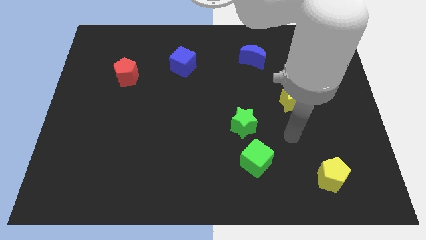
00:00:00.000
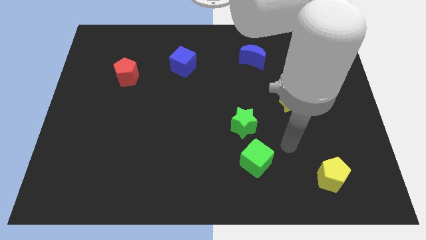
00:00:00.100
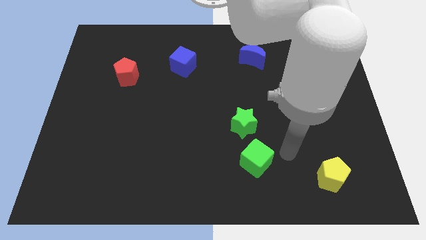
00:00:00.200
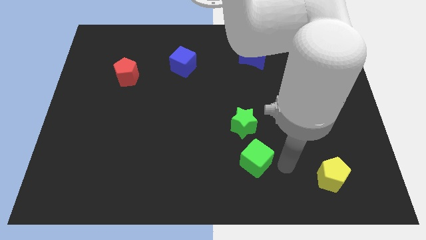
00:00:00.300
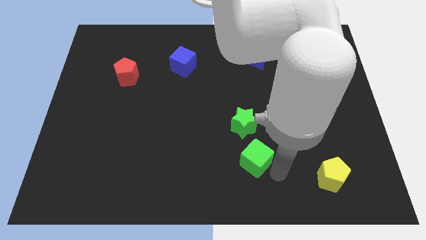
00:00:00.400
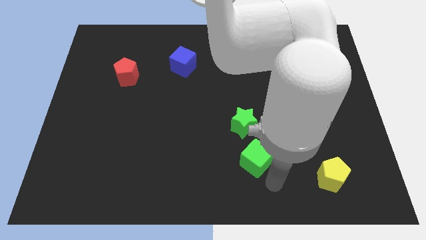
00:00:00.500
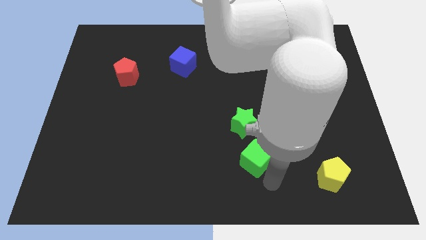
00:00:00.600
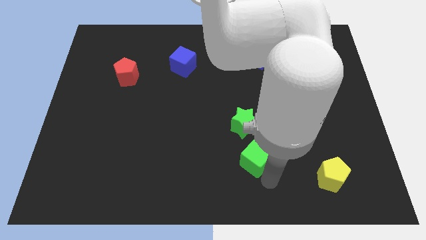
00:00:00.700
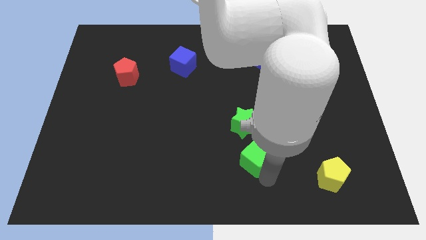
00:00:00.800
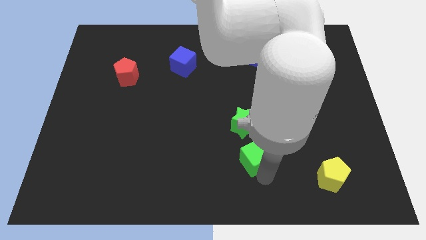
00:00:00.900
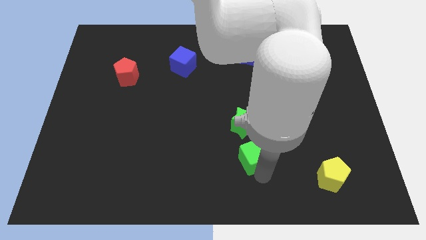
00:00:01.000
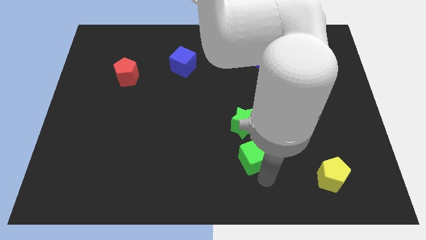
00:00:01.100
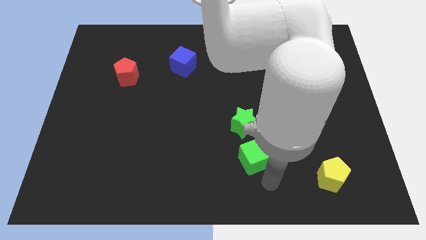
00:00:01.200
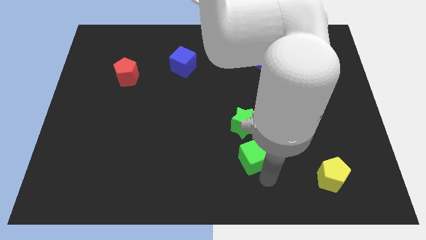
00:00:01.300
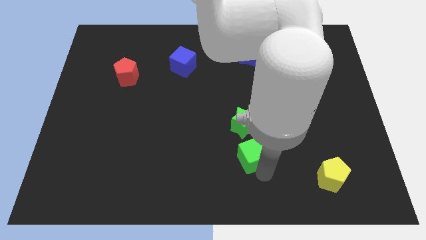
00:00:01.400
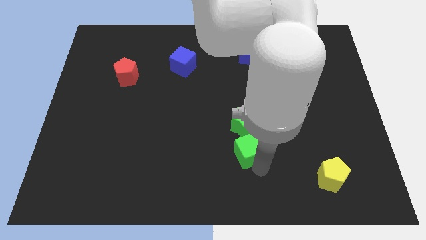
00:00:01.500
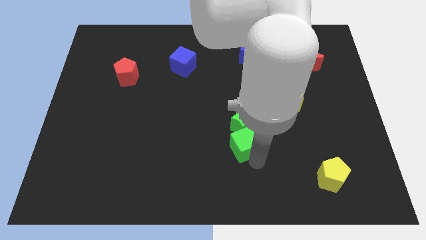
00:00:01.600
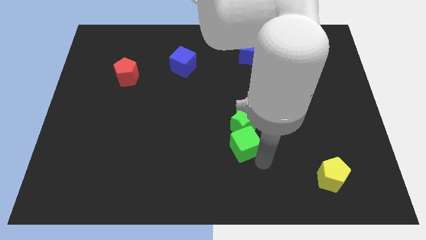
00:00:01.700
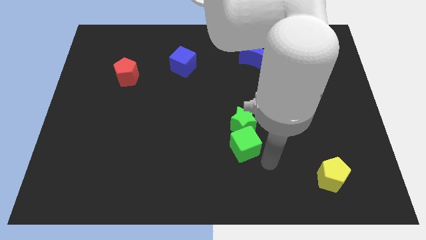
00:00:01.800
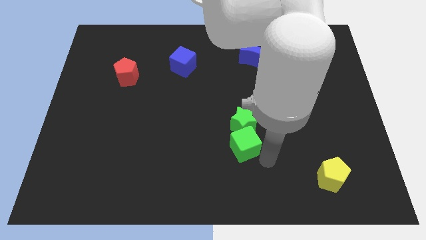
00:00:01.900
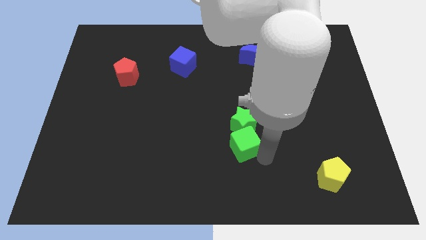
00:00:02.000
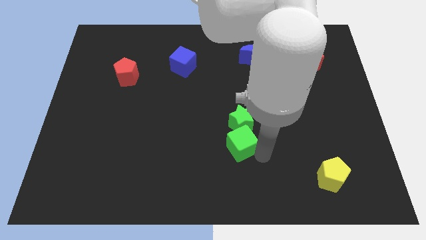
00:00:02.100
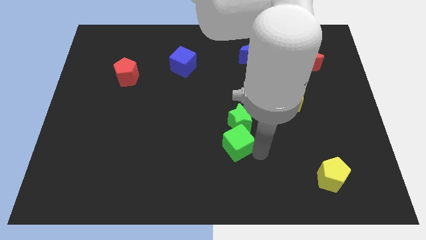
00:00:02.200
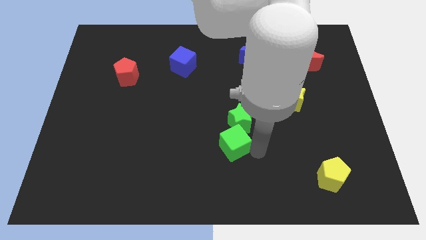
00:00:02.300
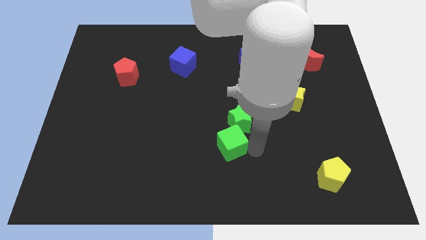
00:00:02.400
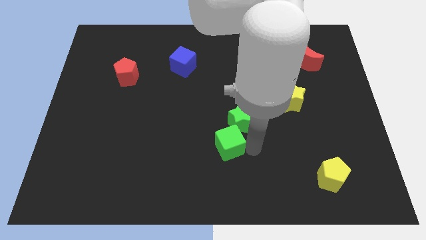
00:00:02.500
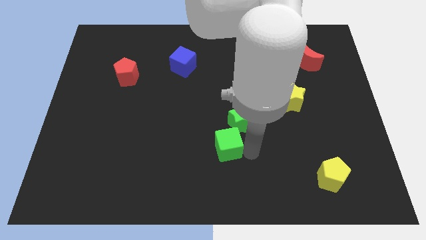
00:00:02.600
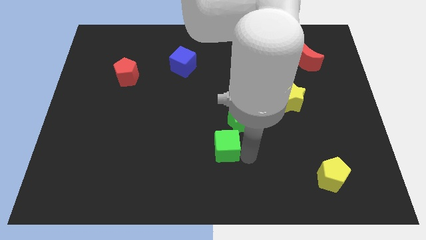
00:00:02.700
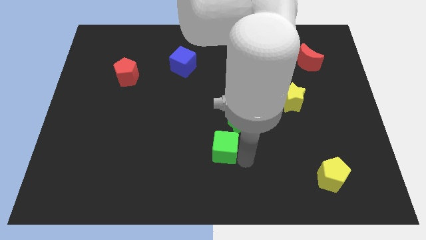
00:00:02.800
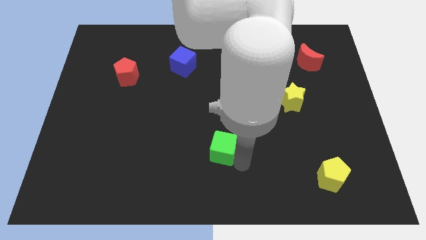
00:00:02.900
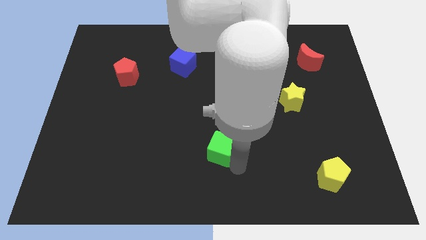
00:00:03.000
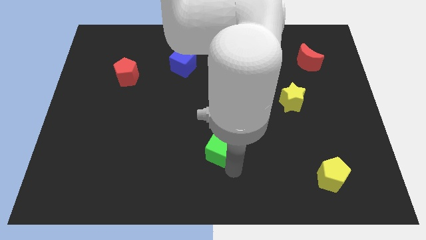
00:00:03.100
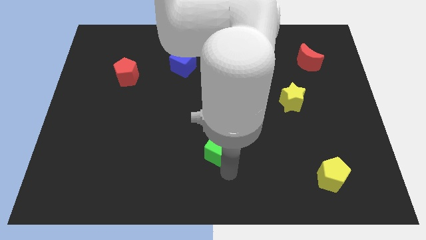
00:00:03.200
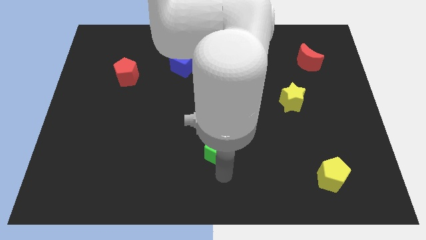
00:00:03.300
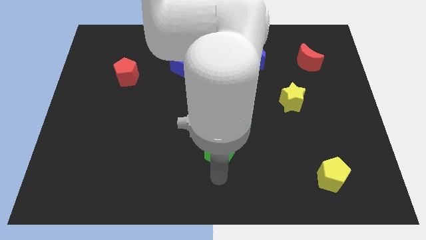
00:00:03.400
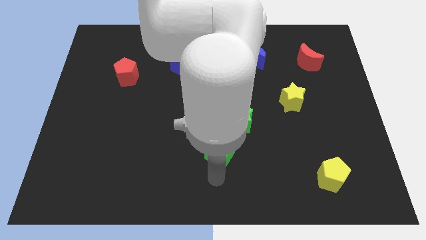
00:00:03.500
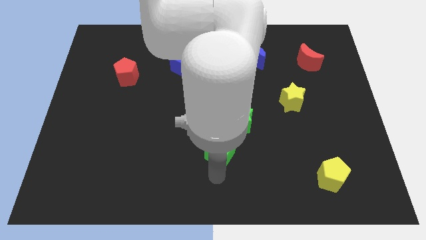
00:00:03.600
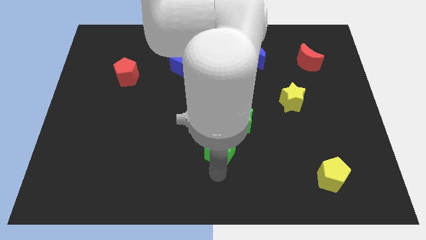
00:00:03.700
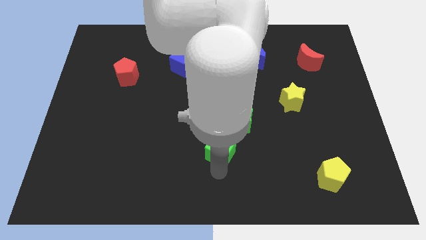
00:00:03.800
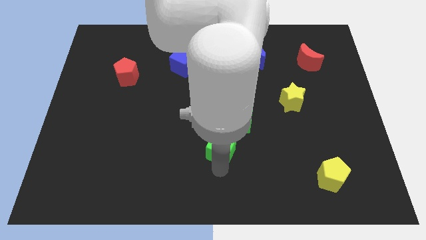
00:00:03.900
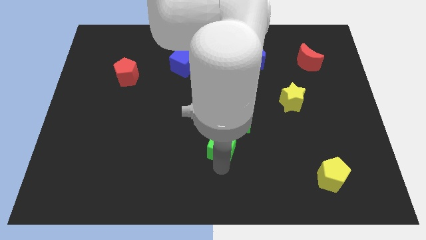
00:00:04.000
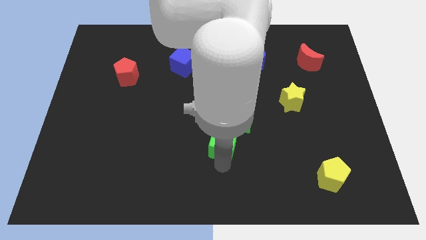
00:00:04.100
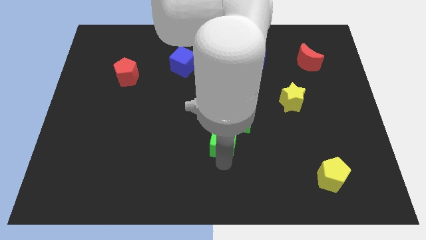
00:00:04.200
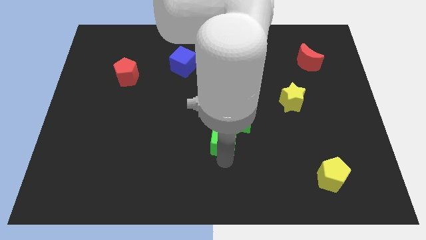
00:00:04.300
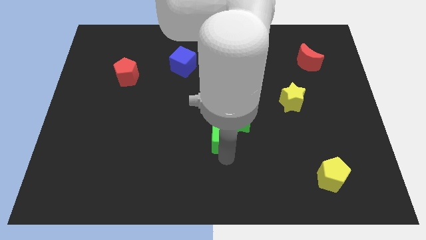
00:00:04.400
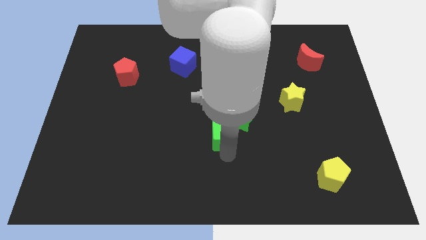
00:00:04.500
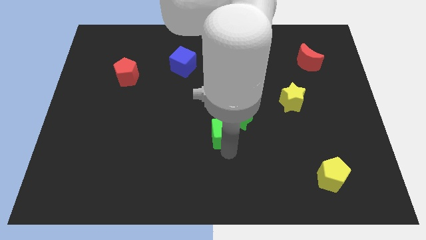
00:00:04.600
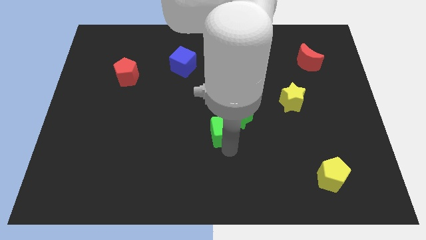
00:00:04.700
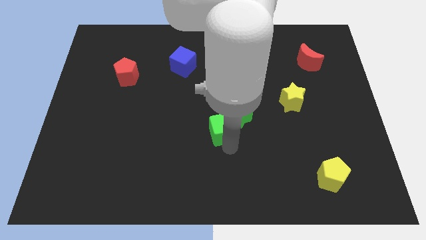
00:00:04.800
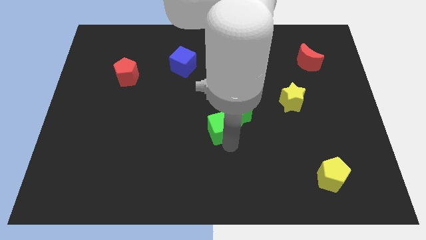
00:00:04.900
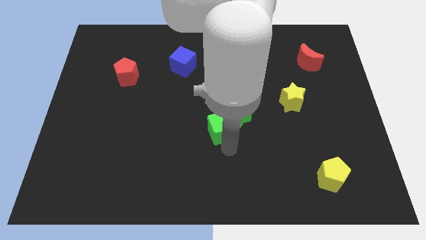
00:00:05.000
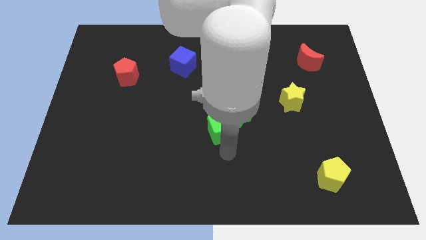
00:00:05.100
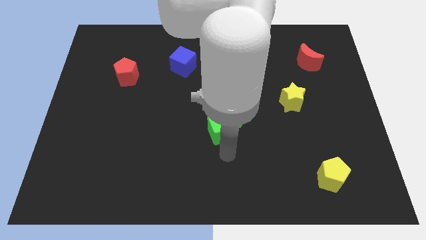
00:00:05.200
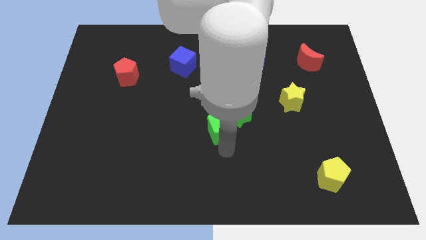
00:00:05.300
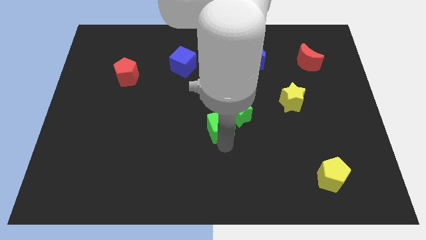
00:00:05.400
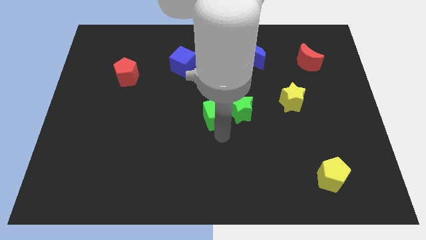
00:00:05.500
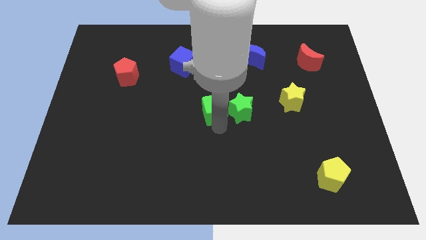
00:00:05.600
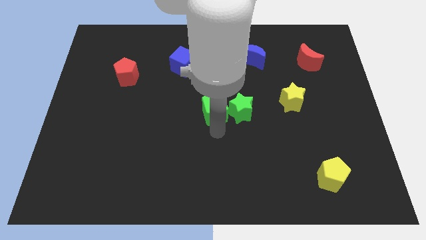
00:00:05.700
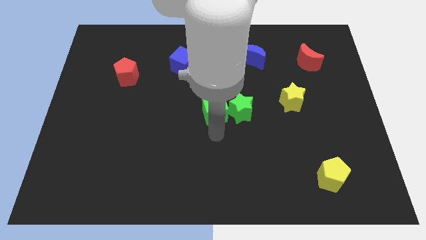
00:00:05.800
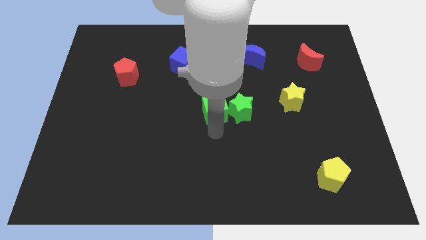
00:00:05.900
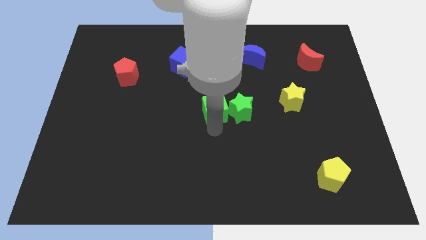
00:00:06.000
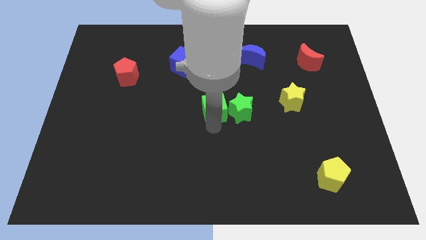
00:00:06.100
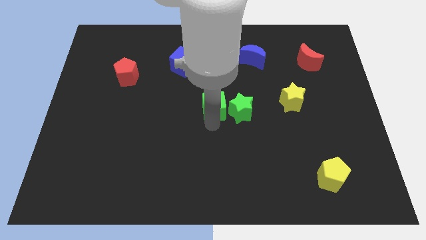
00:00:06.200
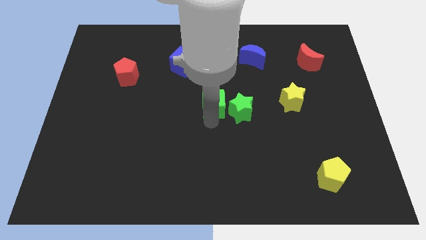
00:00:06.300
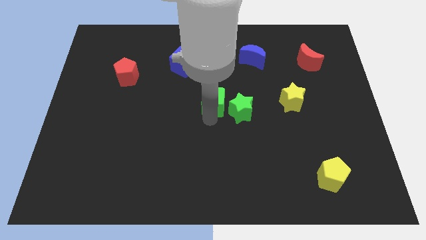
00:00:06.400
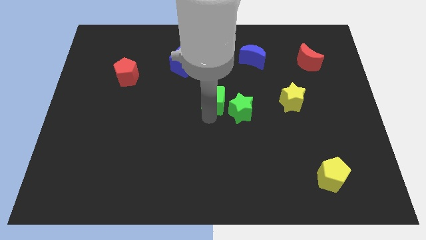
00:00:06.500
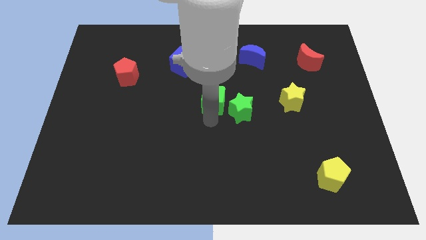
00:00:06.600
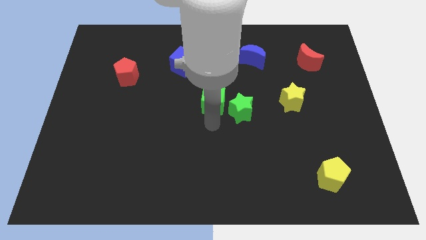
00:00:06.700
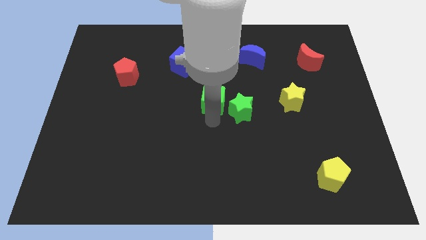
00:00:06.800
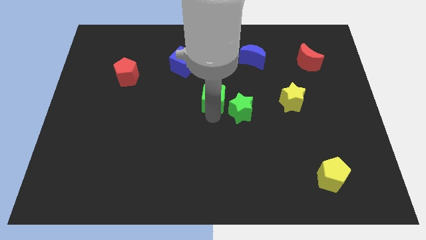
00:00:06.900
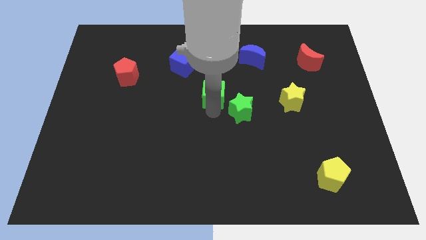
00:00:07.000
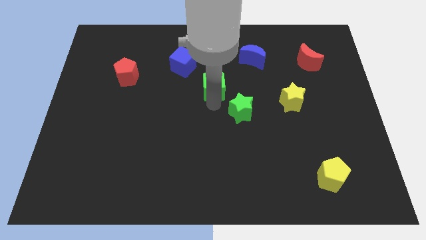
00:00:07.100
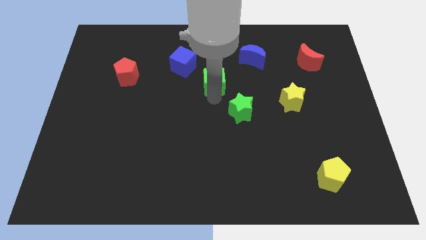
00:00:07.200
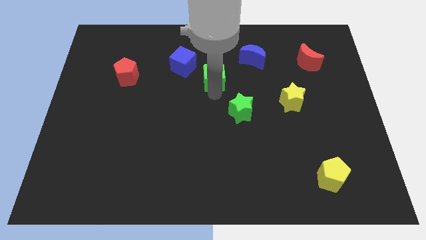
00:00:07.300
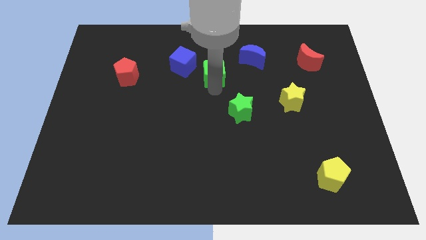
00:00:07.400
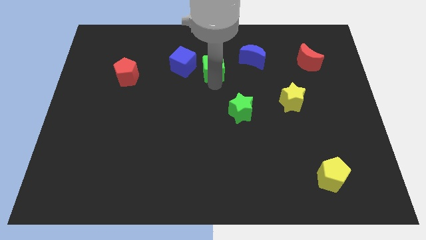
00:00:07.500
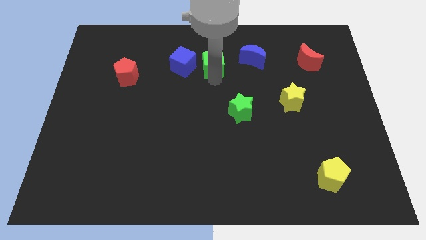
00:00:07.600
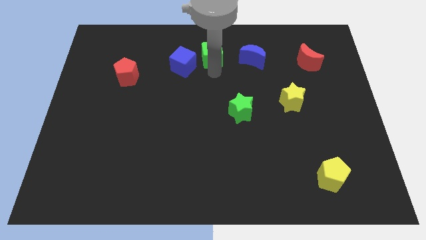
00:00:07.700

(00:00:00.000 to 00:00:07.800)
push the green cube to the towards your base
